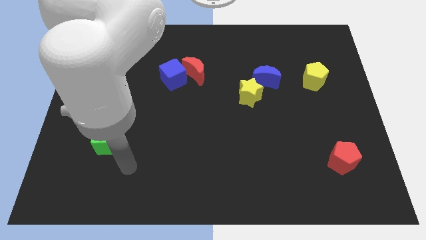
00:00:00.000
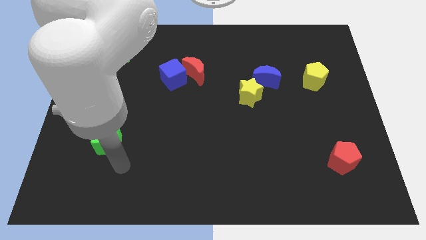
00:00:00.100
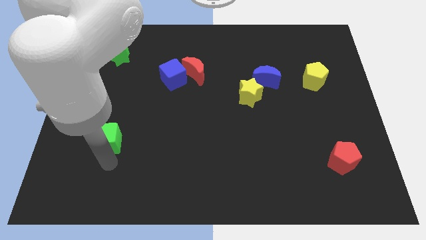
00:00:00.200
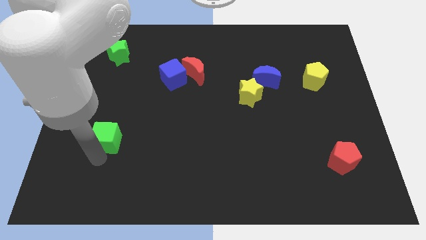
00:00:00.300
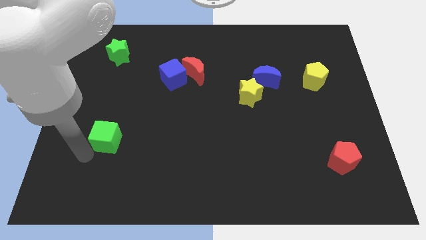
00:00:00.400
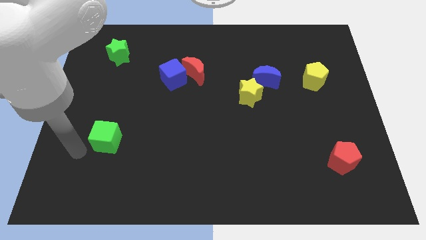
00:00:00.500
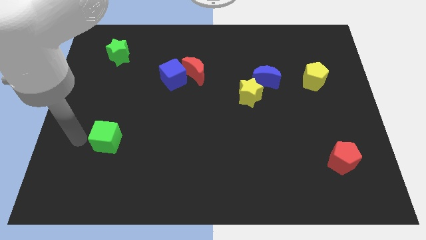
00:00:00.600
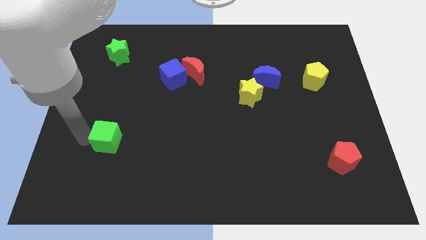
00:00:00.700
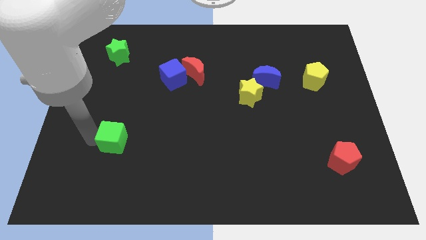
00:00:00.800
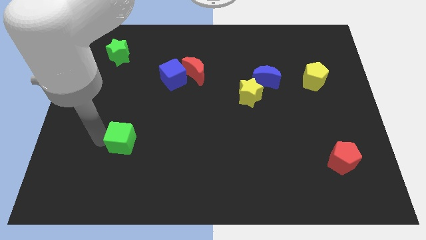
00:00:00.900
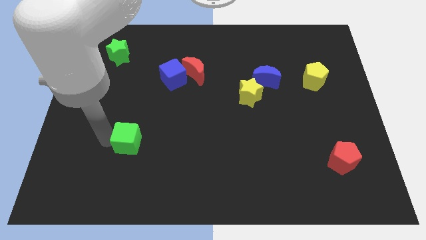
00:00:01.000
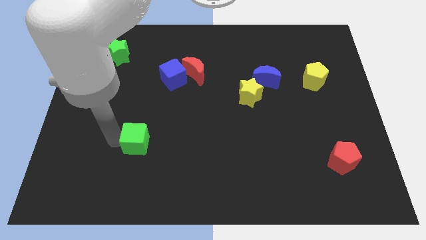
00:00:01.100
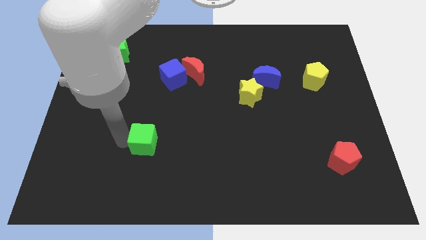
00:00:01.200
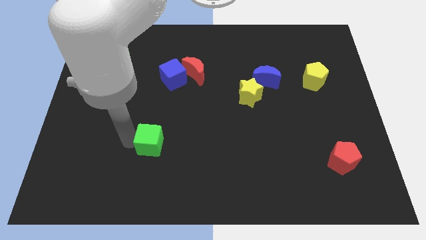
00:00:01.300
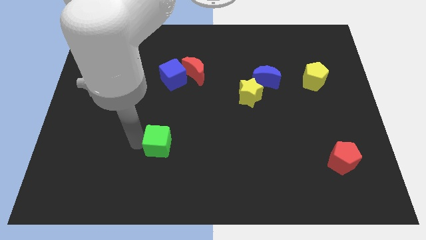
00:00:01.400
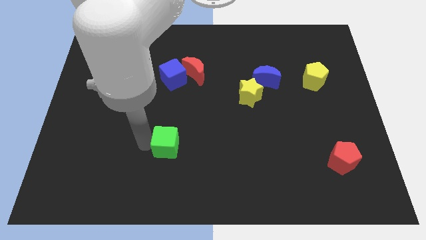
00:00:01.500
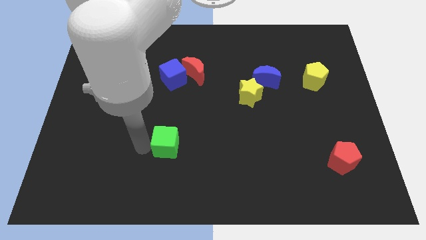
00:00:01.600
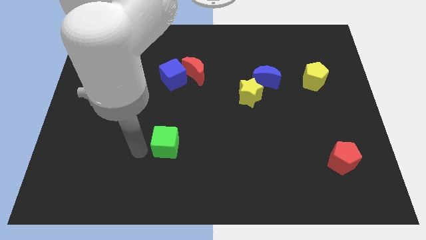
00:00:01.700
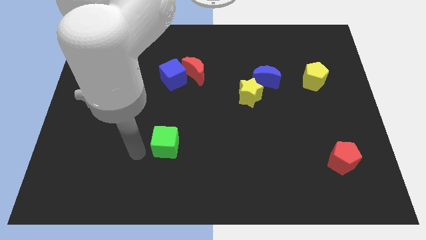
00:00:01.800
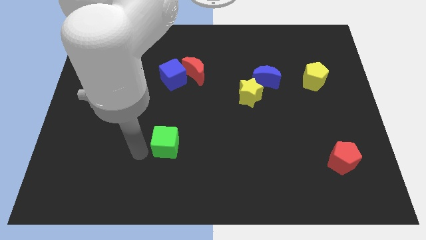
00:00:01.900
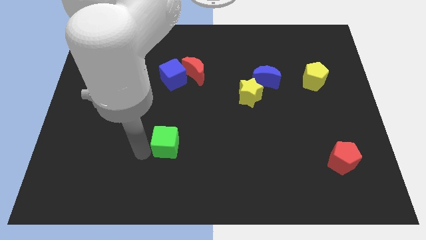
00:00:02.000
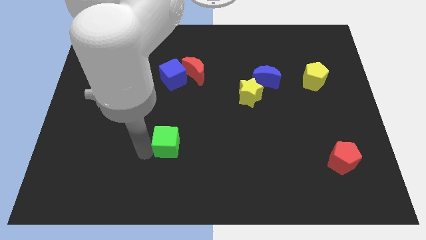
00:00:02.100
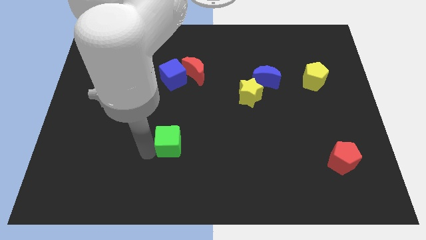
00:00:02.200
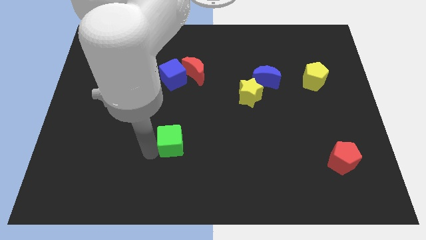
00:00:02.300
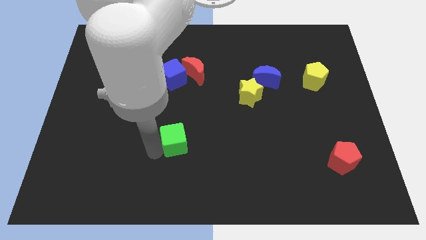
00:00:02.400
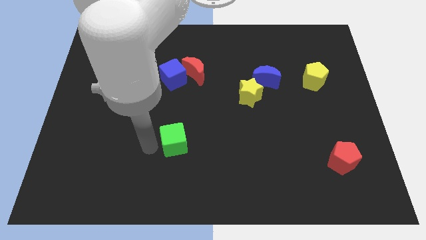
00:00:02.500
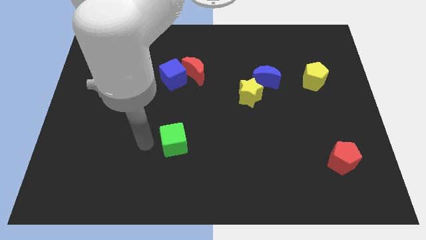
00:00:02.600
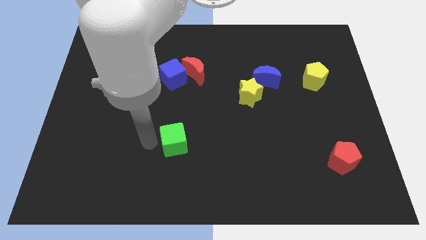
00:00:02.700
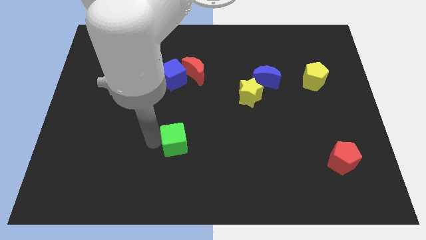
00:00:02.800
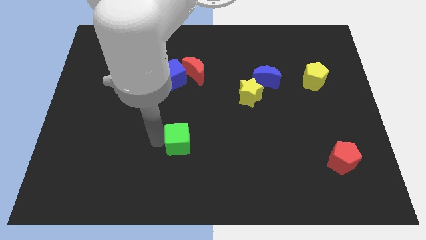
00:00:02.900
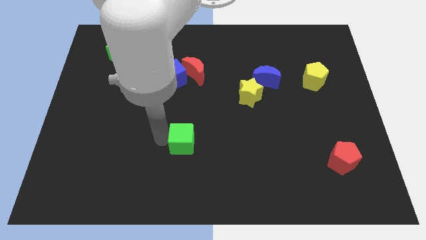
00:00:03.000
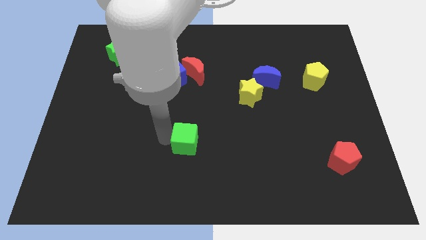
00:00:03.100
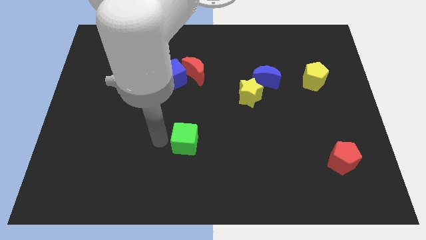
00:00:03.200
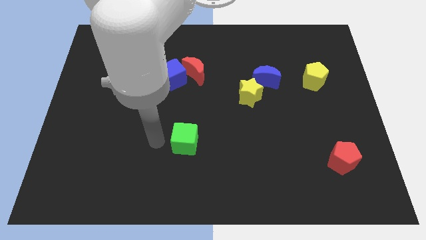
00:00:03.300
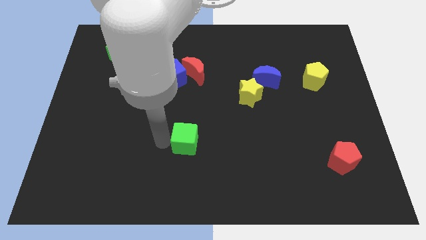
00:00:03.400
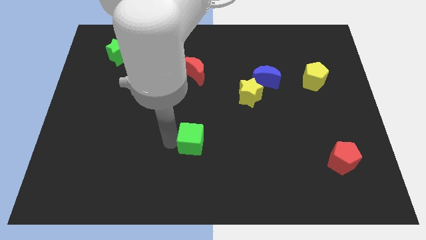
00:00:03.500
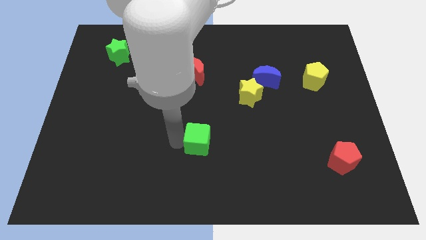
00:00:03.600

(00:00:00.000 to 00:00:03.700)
push the green cube right

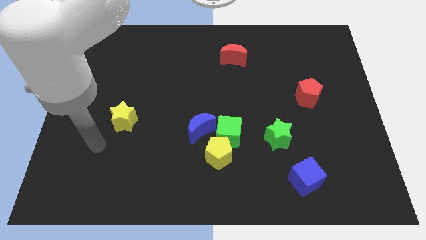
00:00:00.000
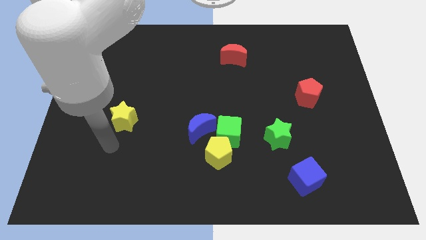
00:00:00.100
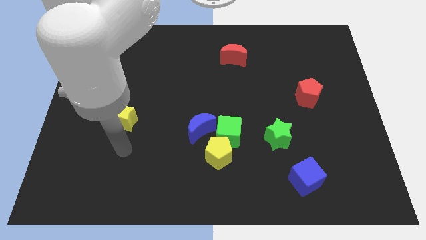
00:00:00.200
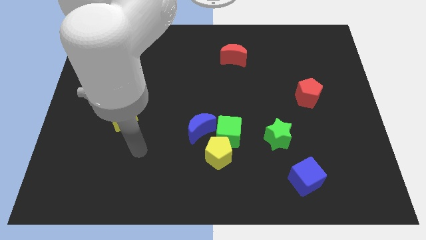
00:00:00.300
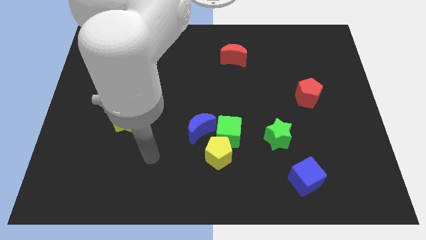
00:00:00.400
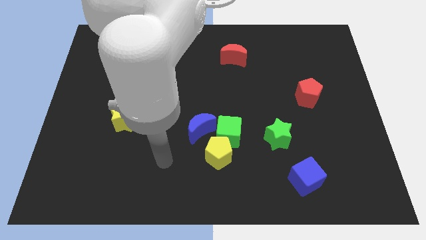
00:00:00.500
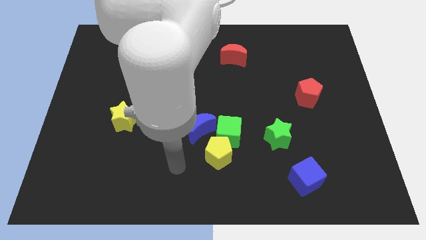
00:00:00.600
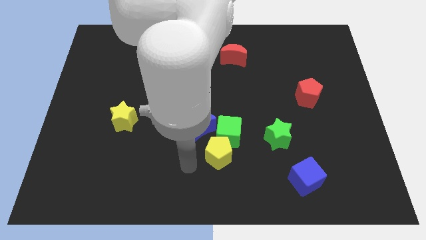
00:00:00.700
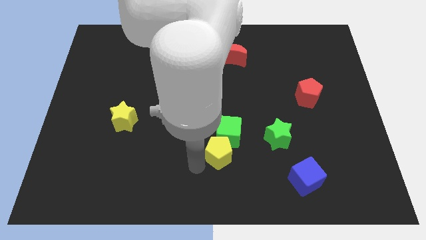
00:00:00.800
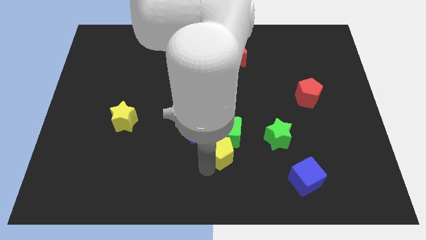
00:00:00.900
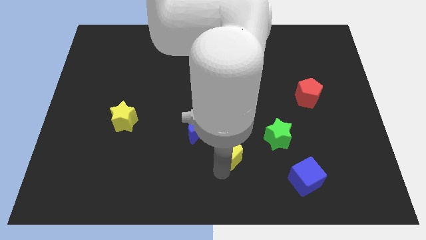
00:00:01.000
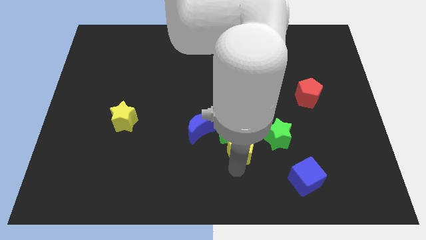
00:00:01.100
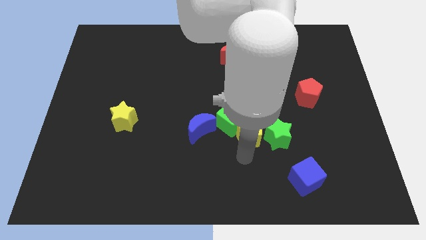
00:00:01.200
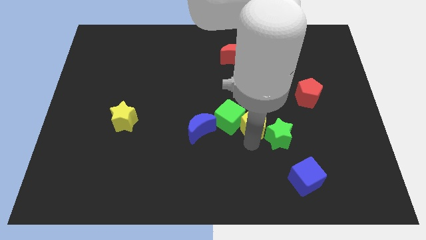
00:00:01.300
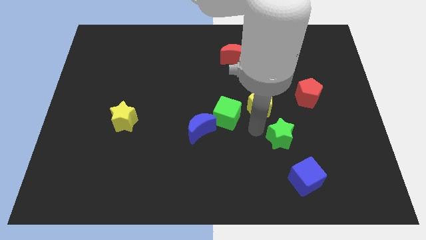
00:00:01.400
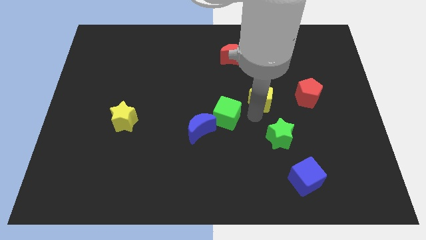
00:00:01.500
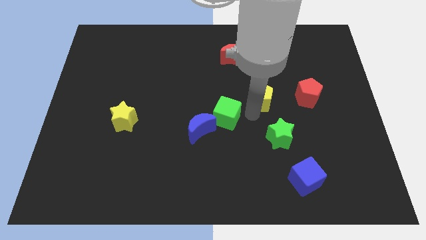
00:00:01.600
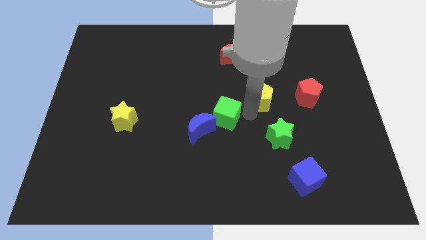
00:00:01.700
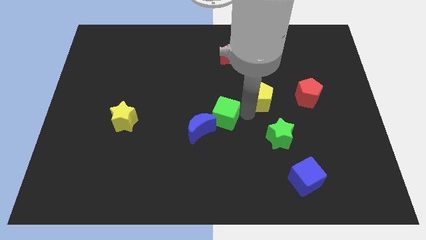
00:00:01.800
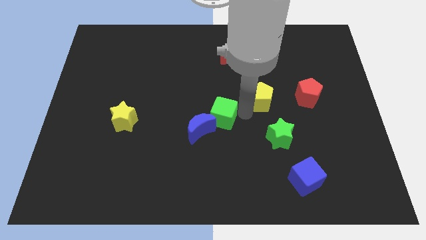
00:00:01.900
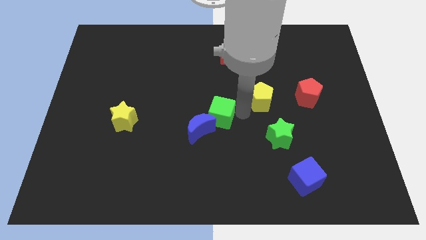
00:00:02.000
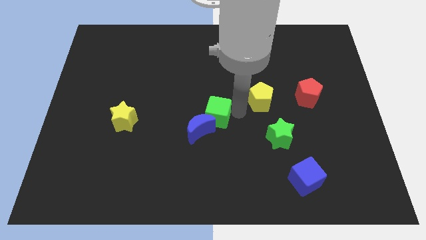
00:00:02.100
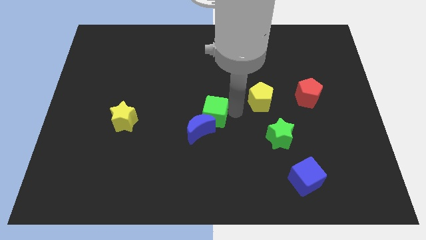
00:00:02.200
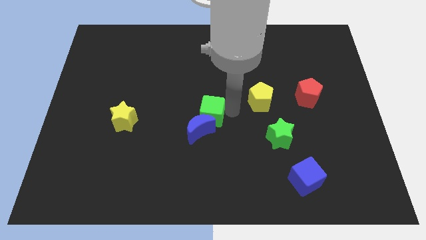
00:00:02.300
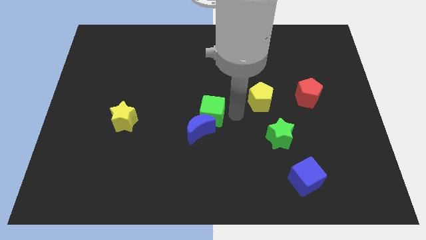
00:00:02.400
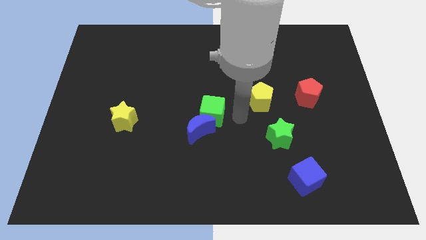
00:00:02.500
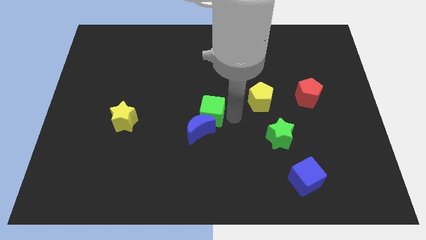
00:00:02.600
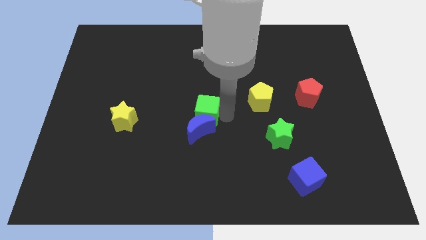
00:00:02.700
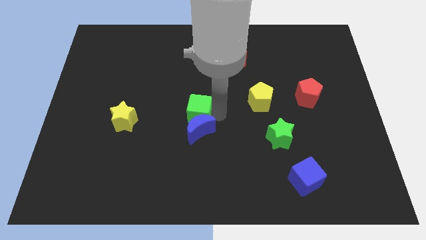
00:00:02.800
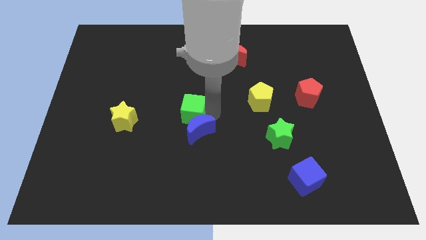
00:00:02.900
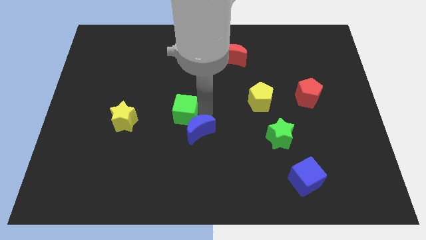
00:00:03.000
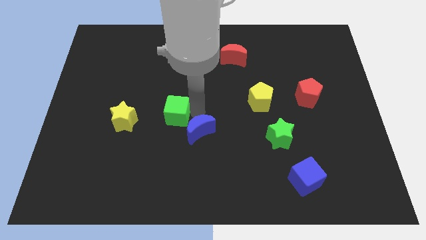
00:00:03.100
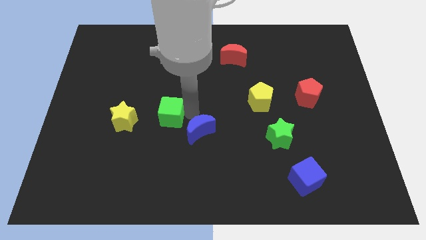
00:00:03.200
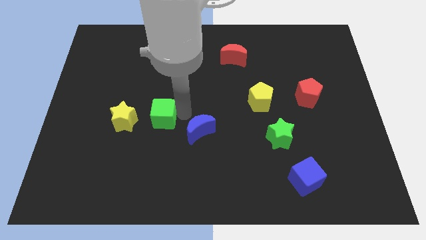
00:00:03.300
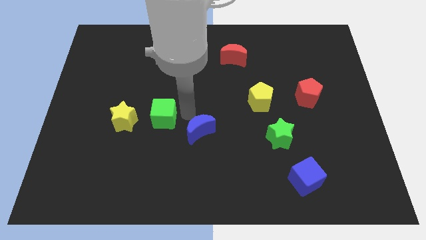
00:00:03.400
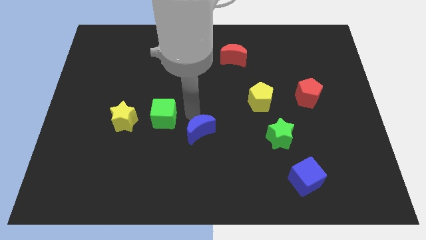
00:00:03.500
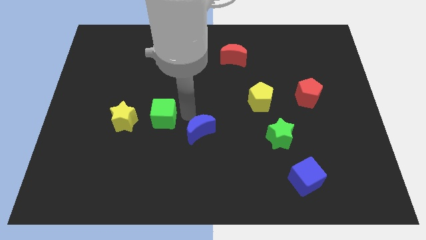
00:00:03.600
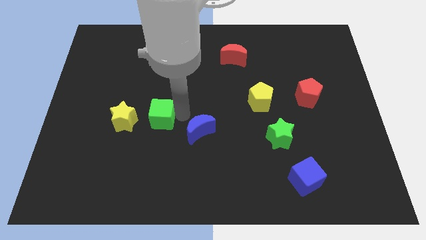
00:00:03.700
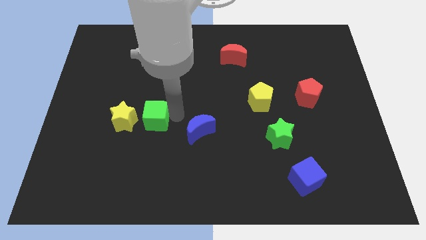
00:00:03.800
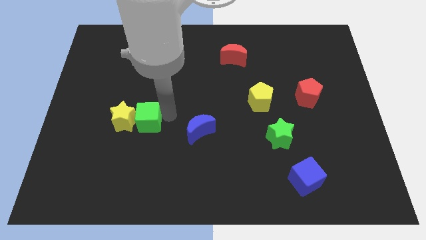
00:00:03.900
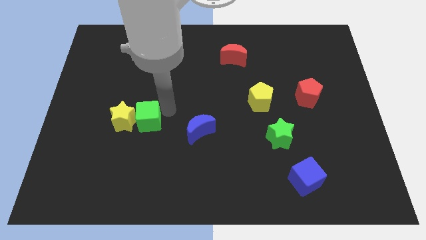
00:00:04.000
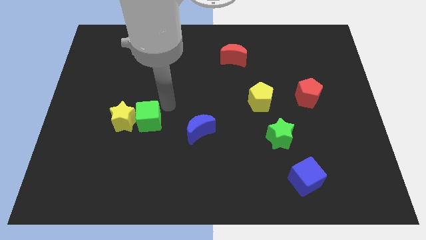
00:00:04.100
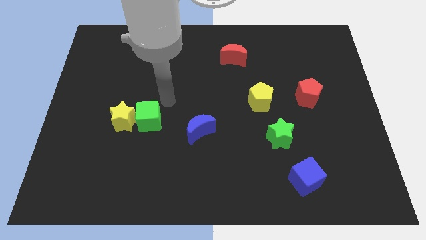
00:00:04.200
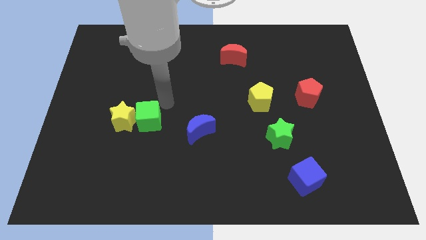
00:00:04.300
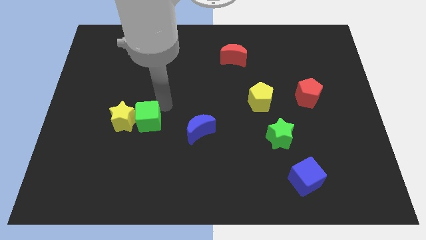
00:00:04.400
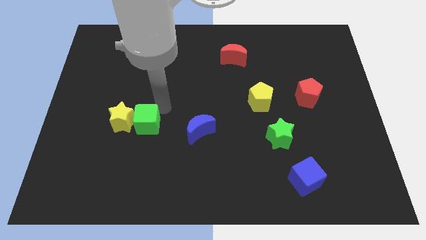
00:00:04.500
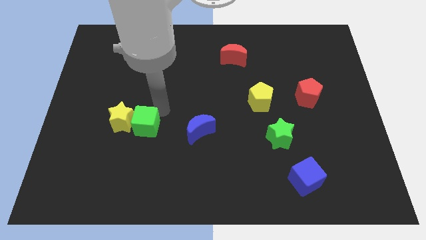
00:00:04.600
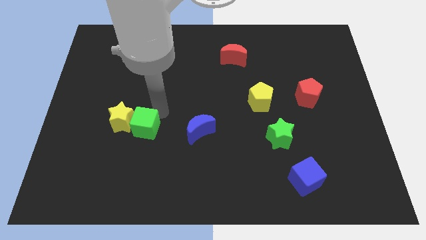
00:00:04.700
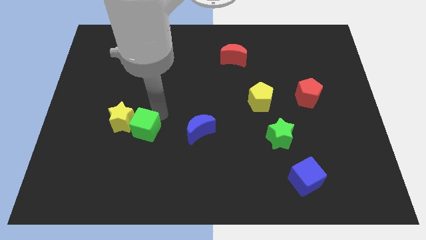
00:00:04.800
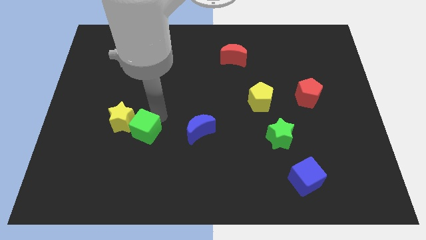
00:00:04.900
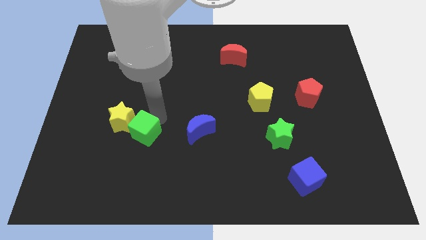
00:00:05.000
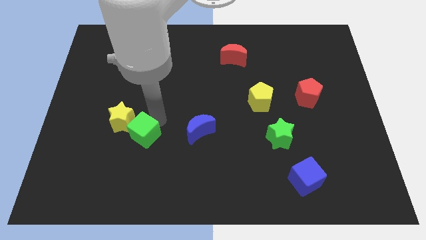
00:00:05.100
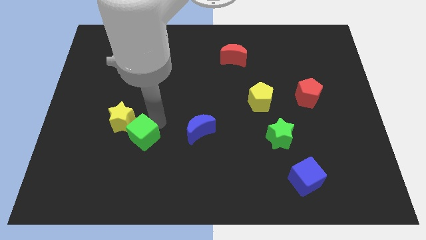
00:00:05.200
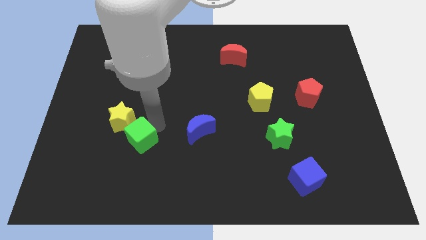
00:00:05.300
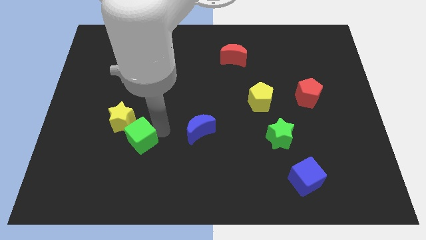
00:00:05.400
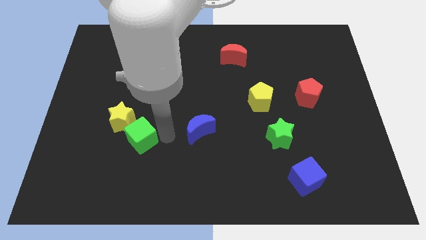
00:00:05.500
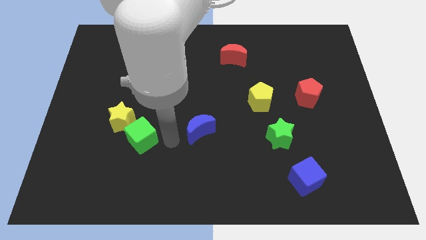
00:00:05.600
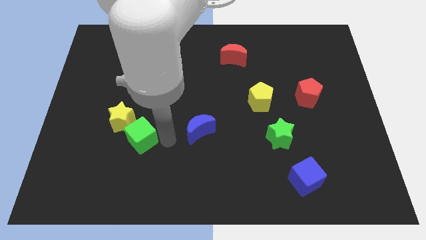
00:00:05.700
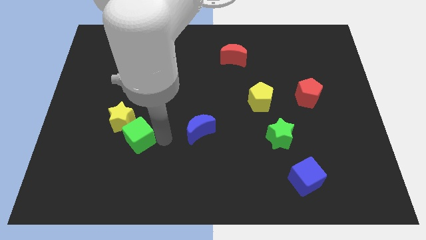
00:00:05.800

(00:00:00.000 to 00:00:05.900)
slide the green cube left
